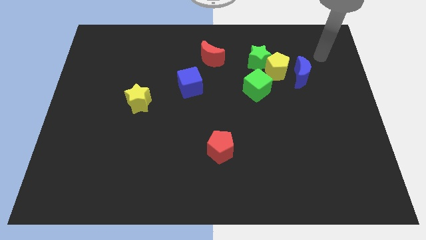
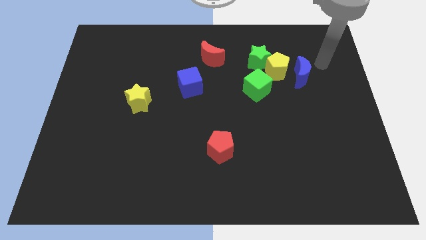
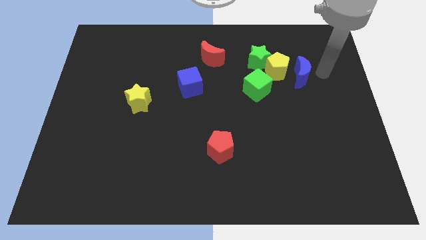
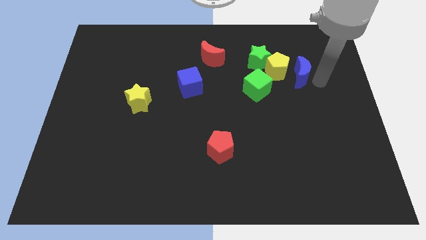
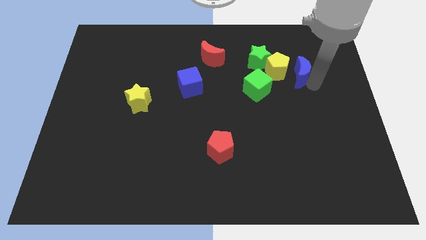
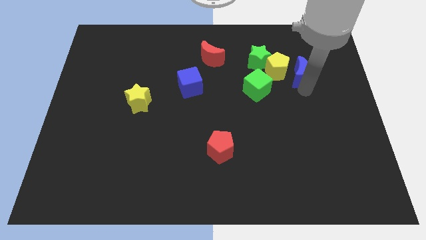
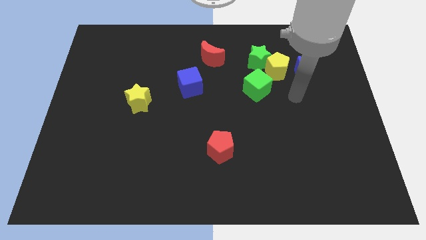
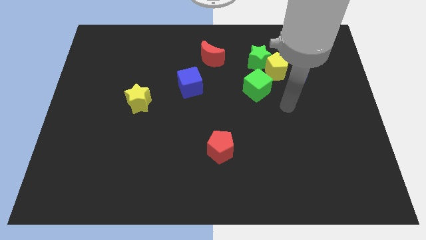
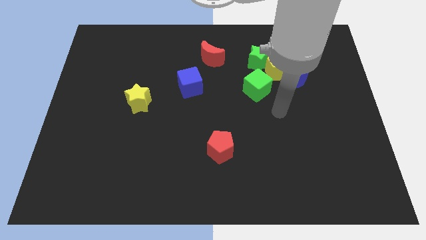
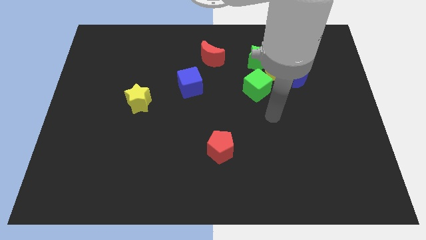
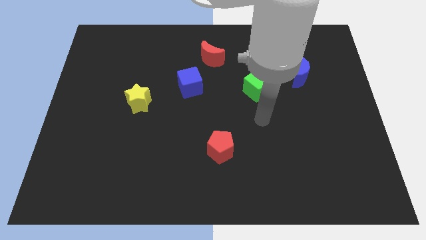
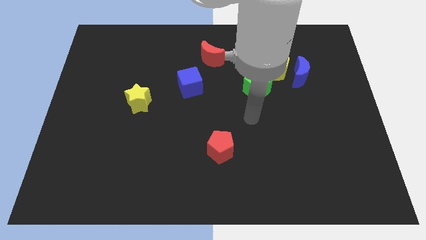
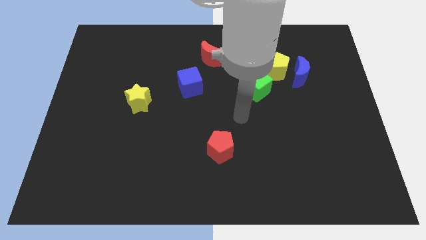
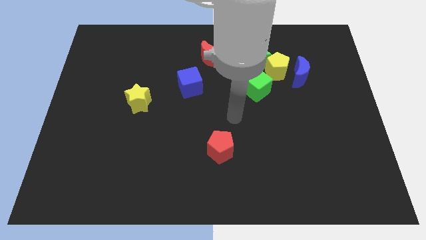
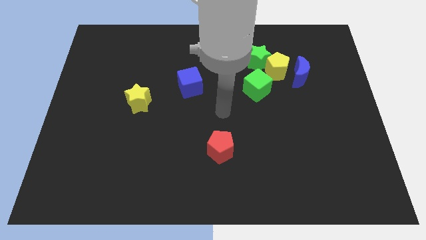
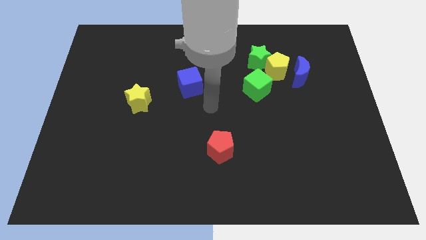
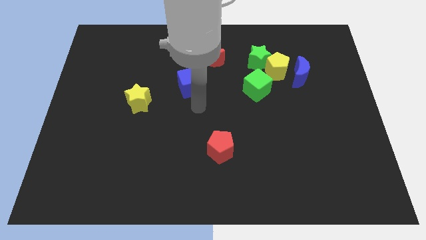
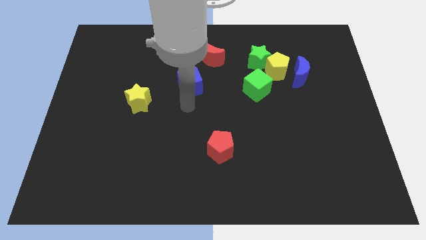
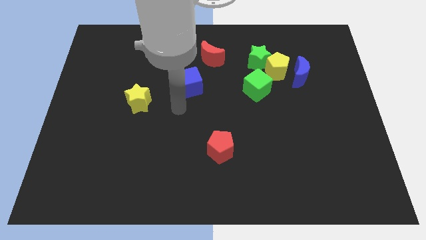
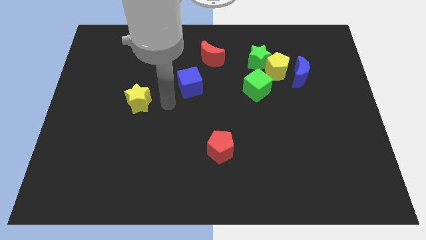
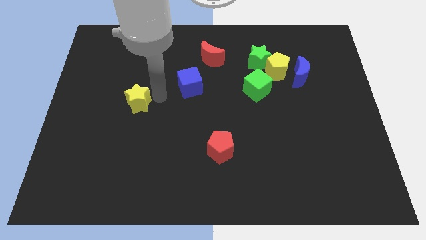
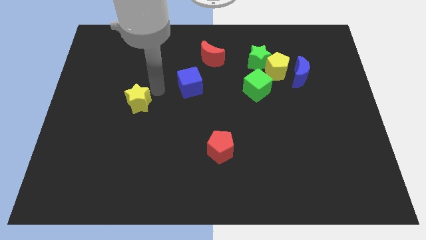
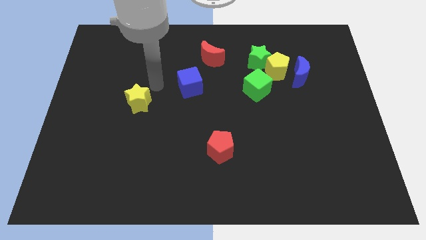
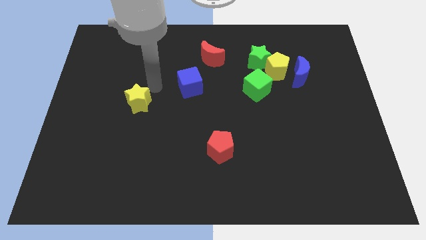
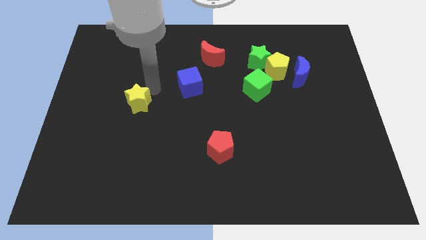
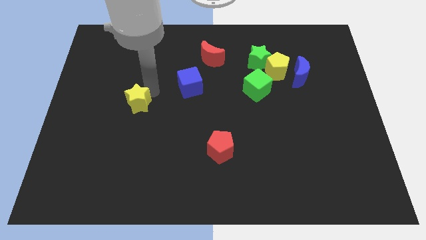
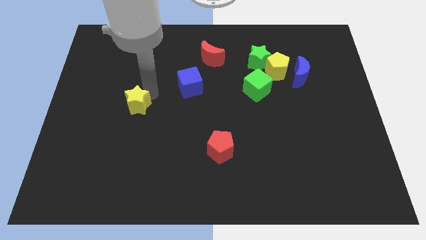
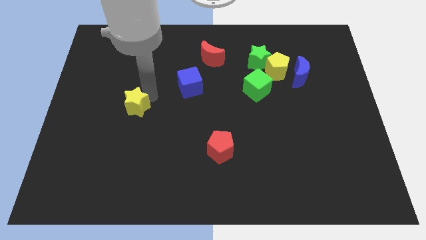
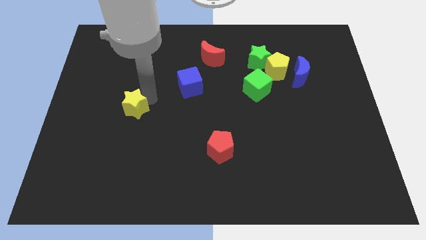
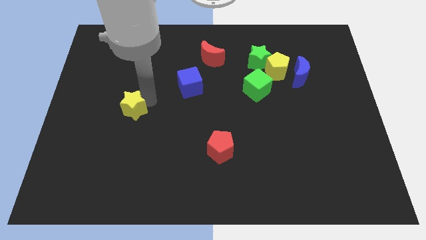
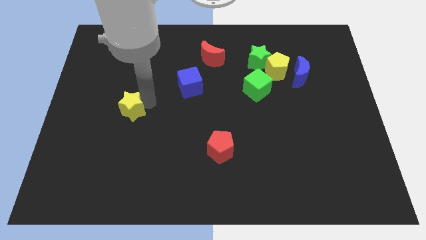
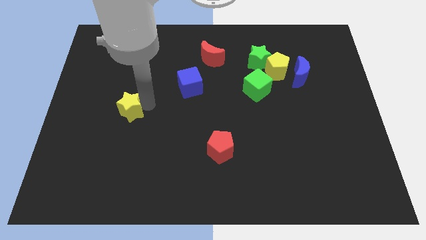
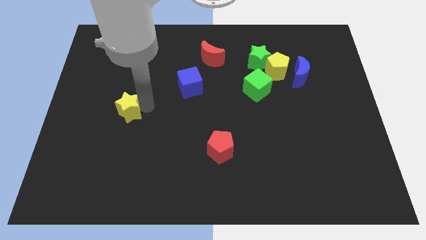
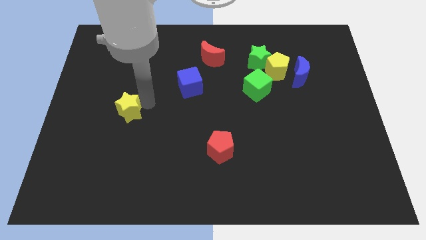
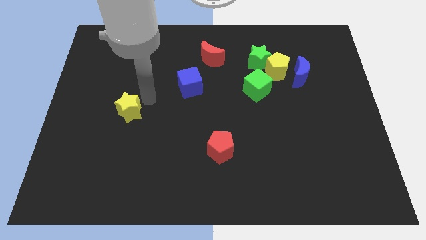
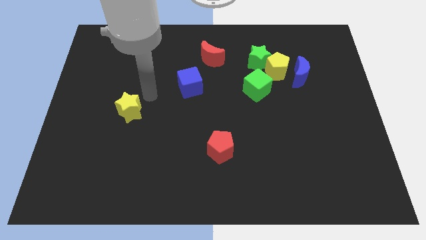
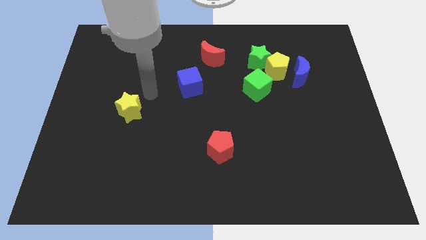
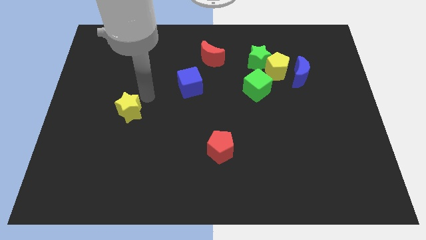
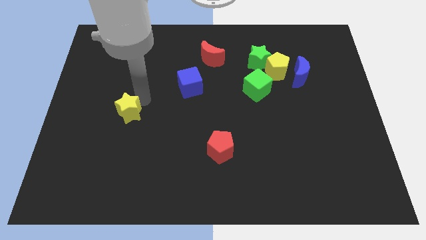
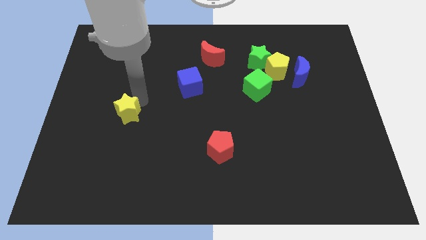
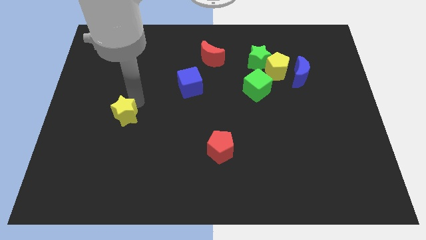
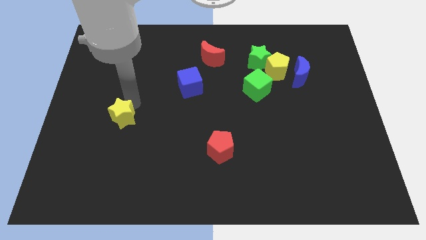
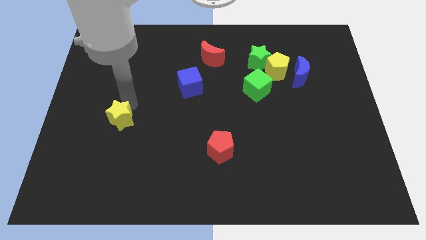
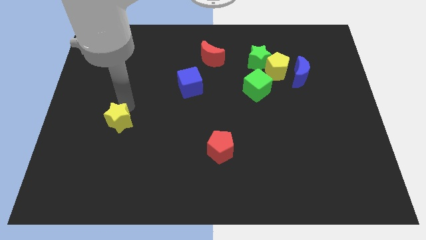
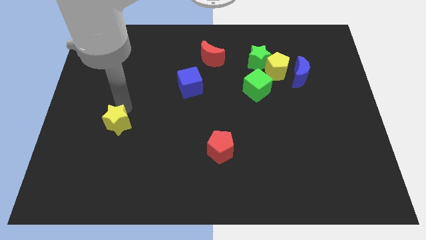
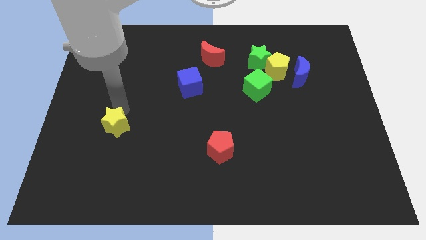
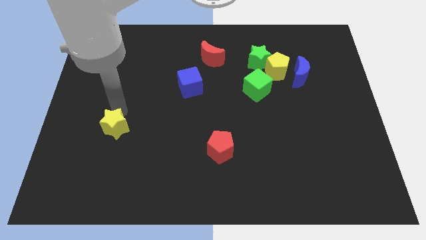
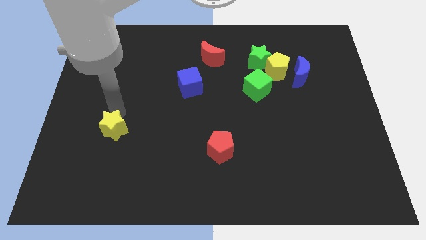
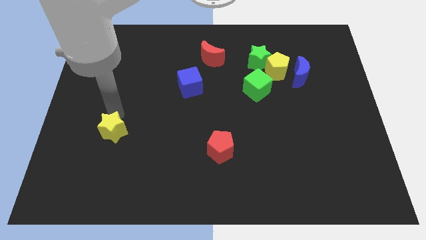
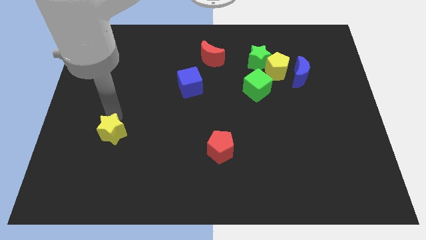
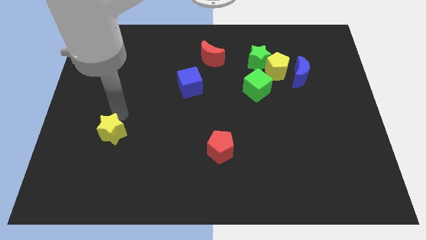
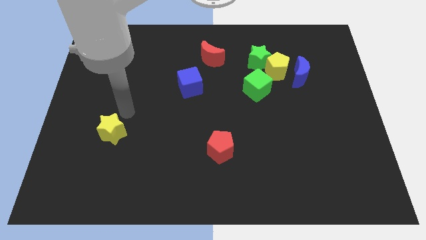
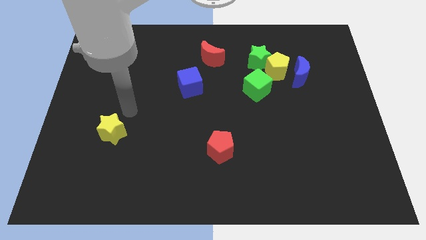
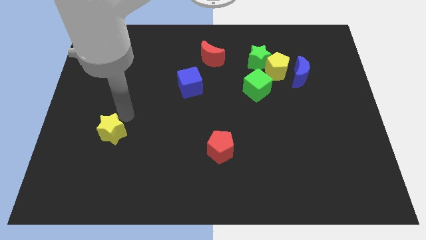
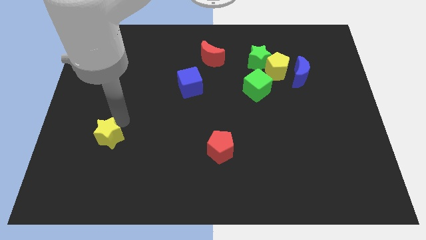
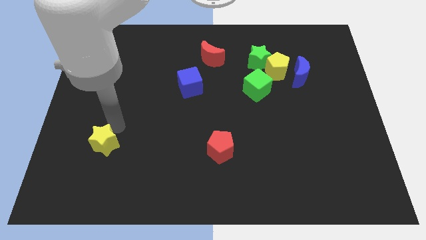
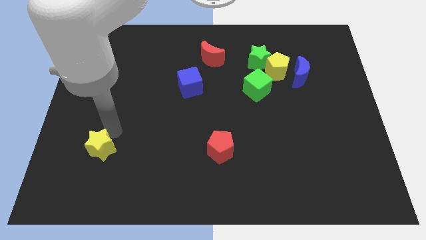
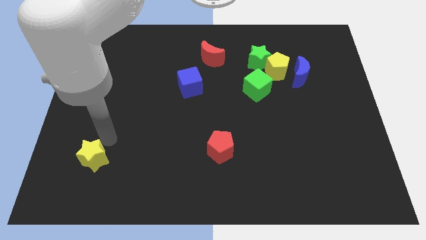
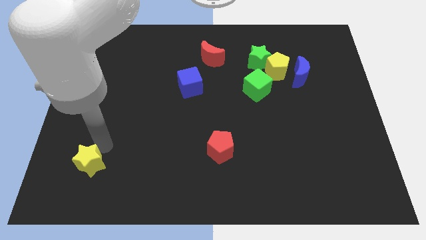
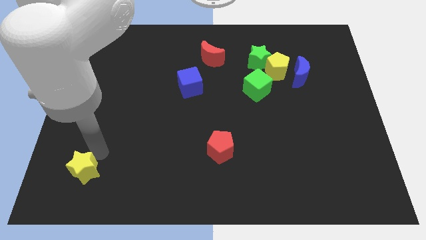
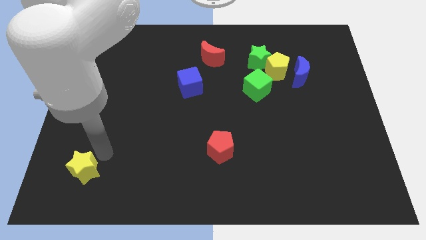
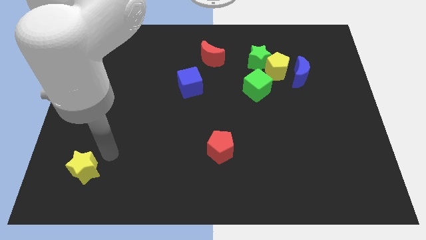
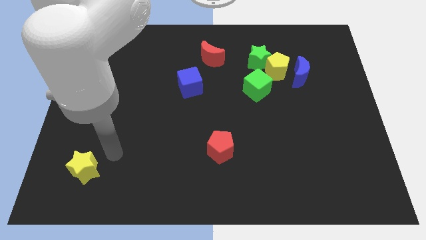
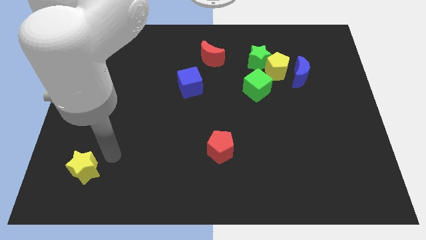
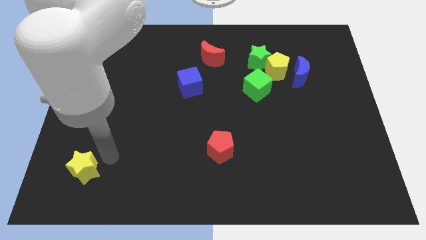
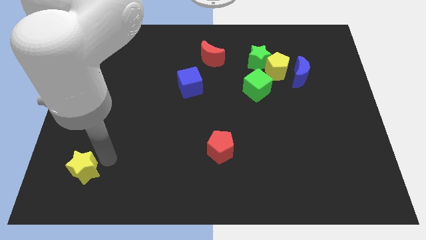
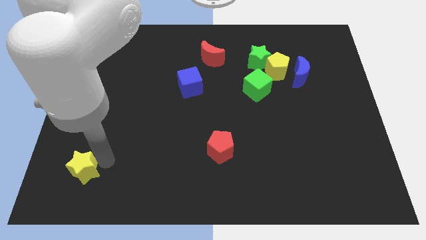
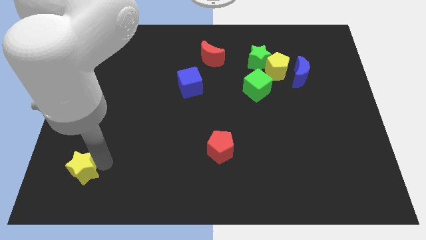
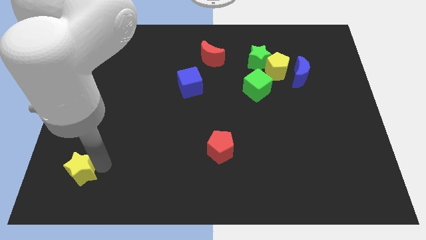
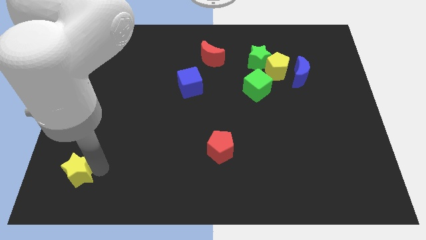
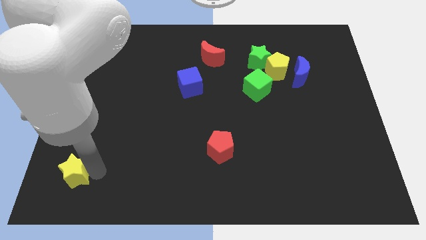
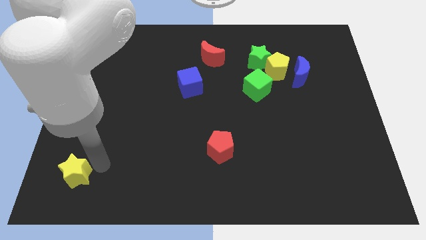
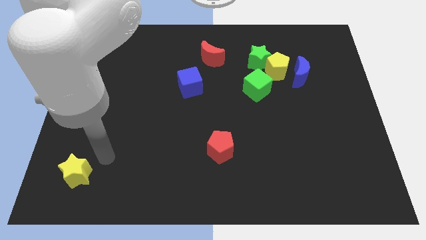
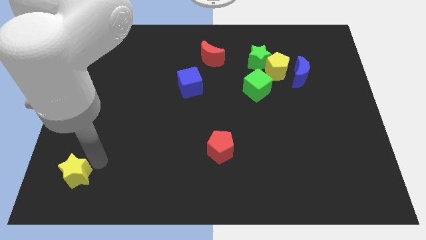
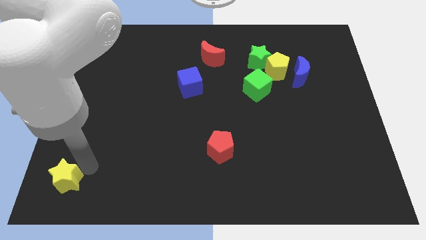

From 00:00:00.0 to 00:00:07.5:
move the yellow star to the bottom left
